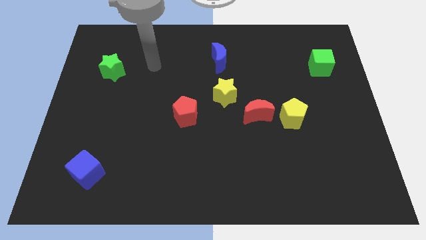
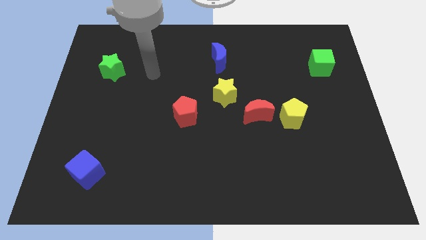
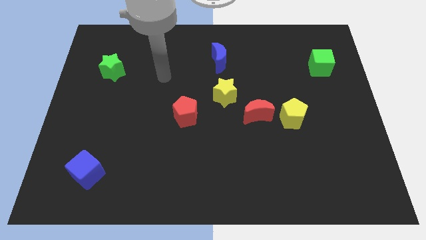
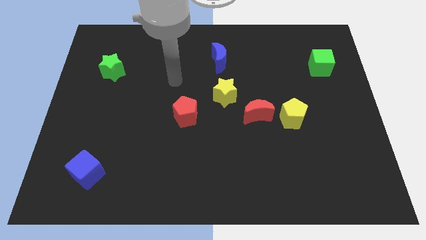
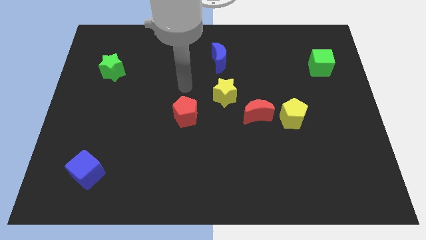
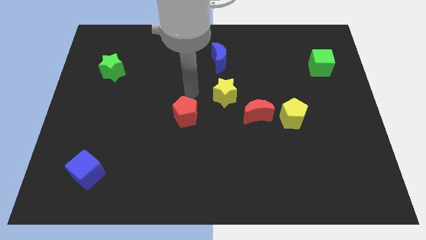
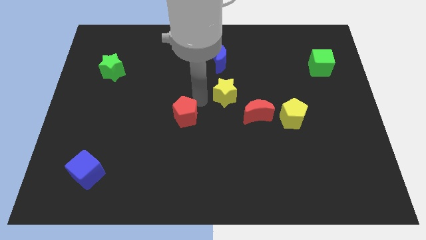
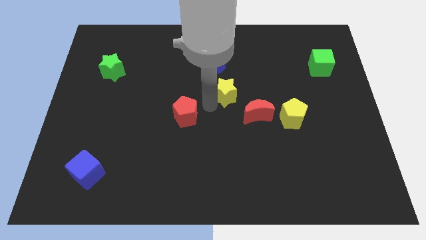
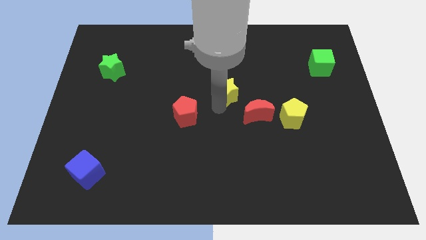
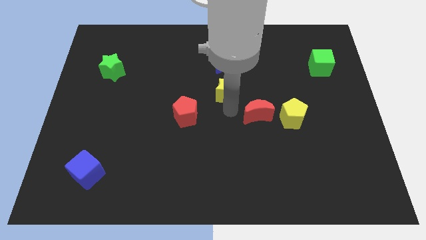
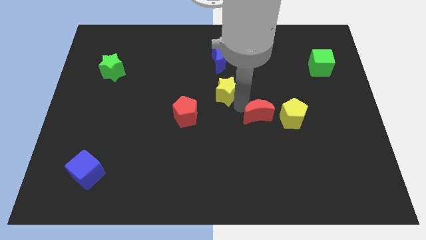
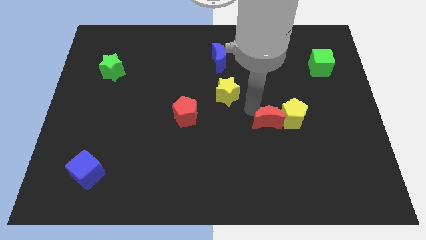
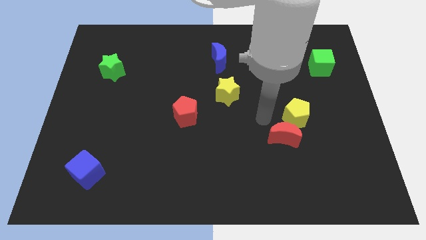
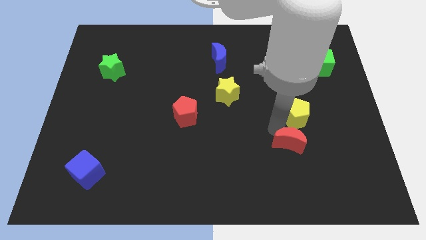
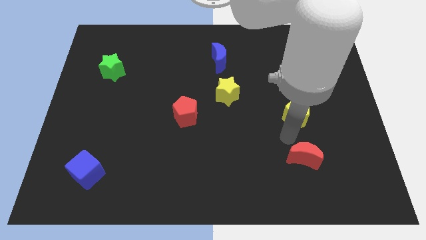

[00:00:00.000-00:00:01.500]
separate the yellow pentagon from the red moon

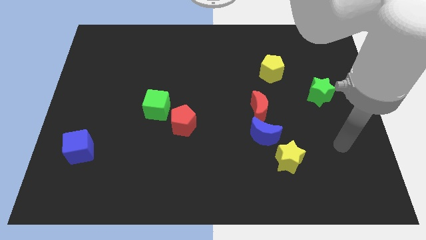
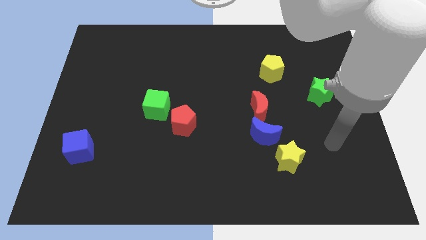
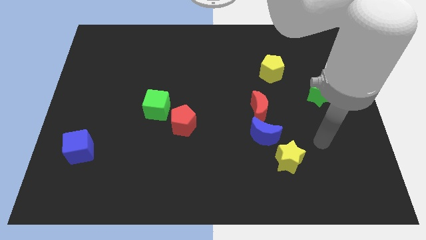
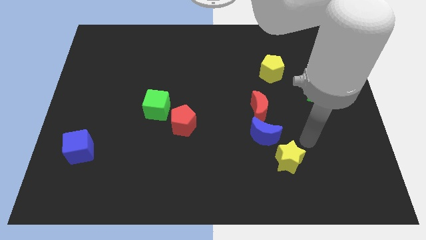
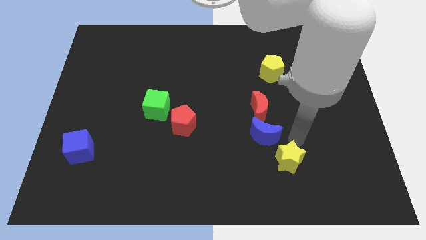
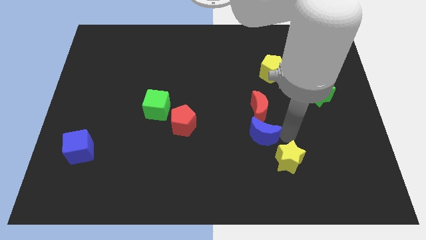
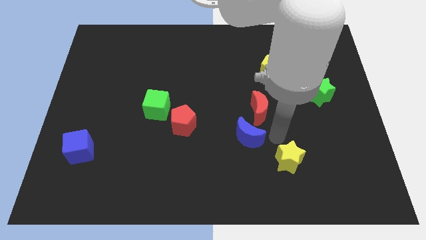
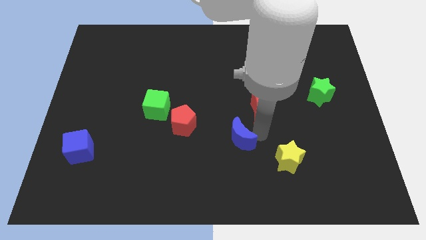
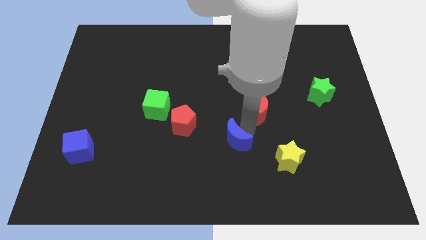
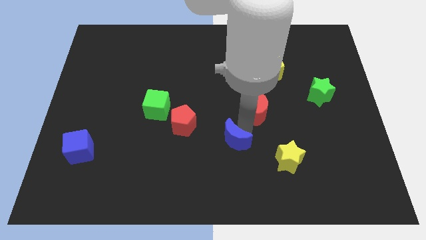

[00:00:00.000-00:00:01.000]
pull the red moon apart from the blue moon

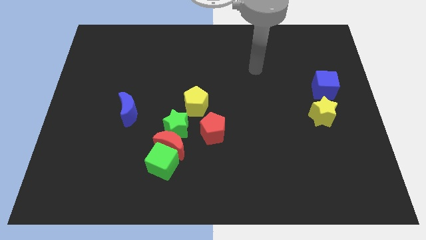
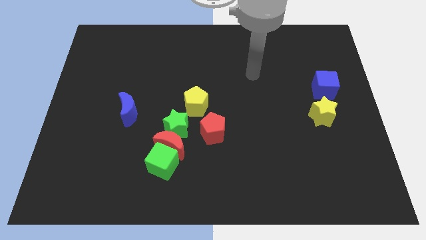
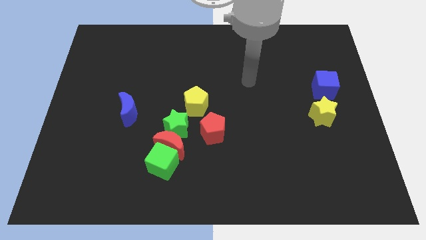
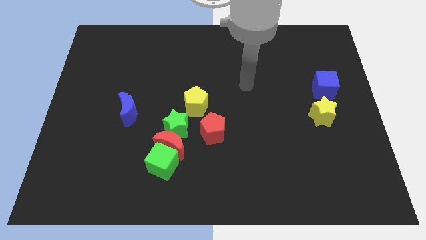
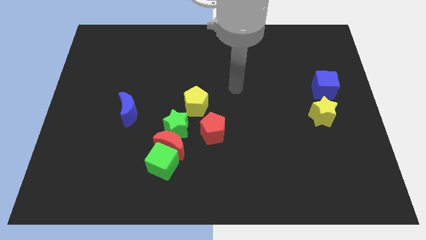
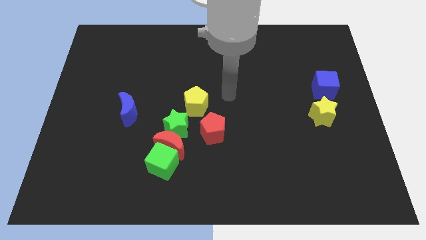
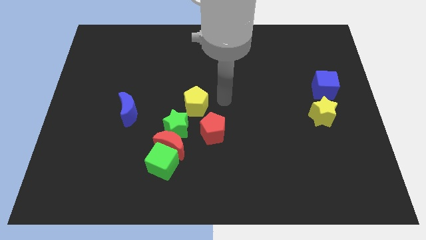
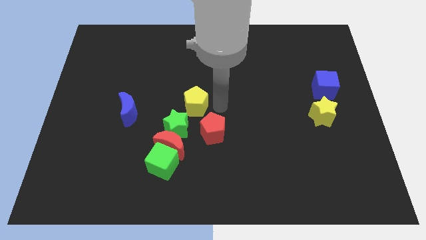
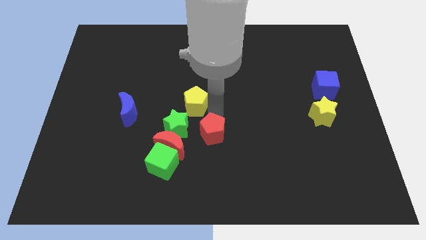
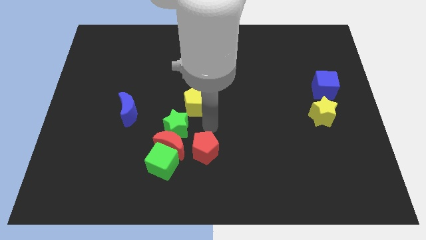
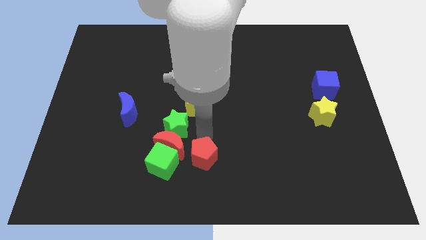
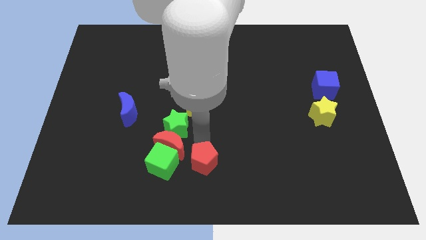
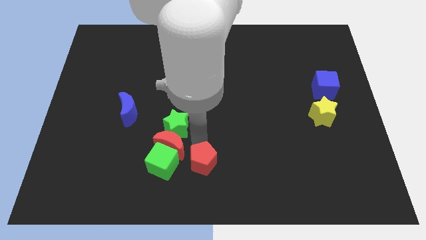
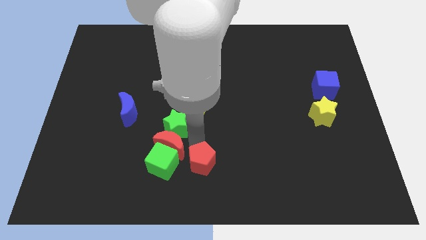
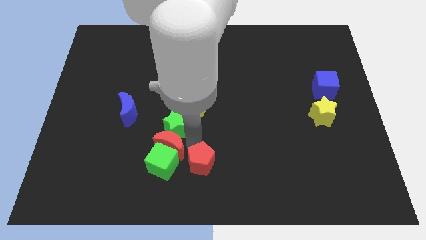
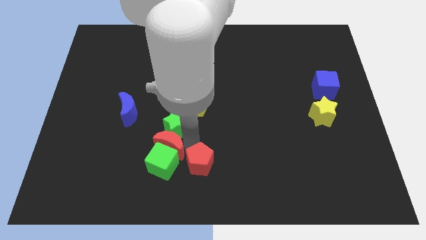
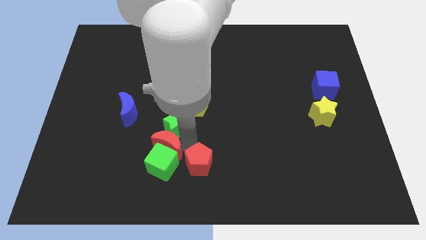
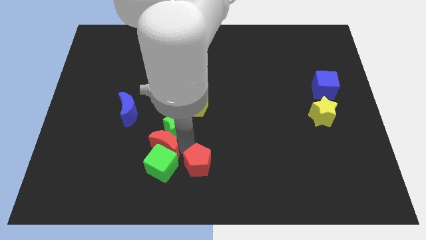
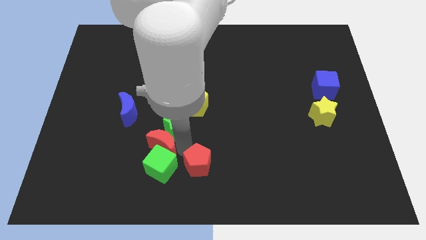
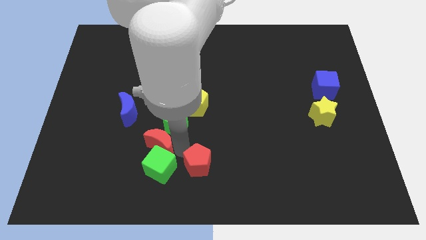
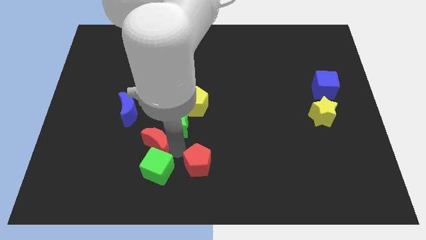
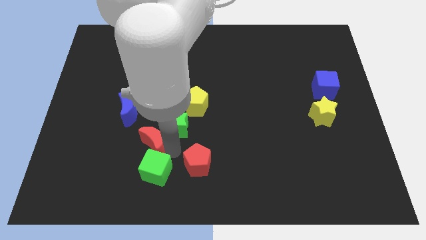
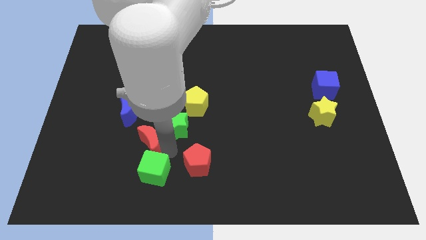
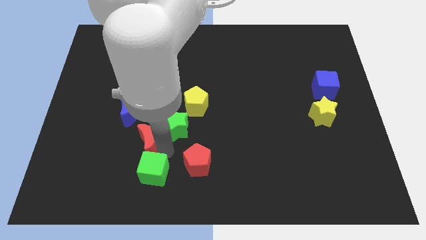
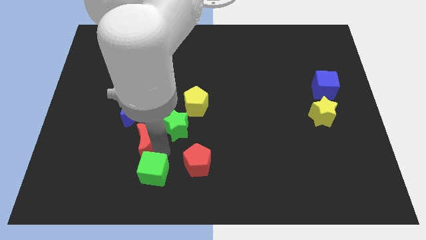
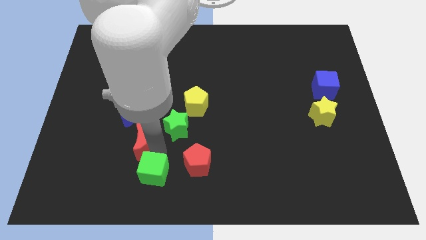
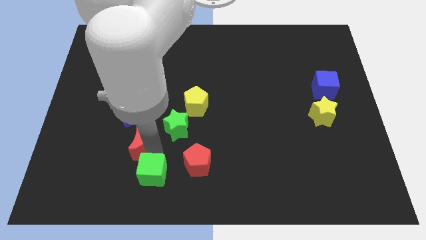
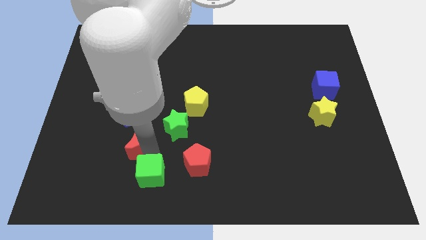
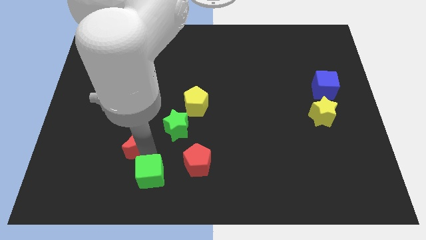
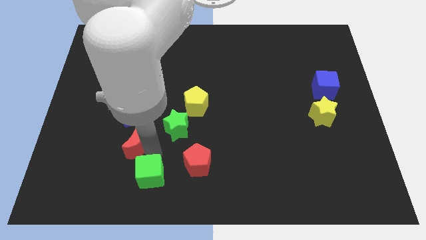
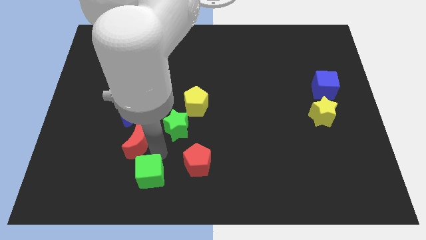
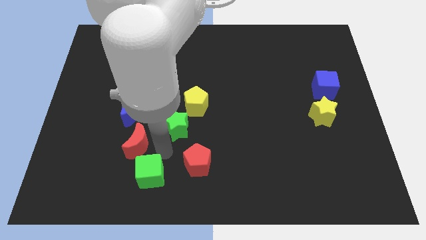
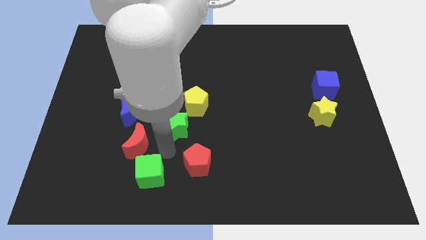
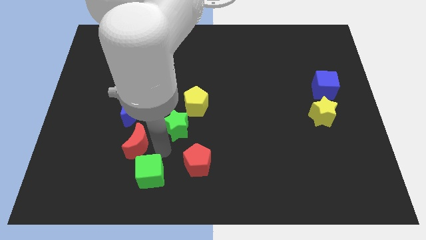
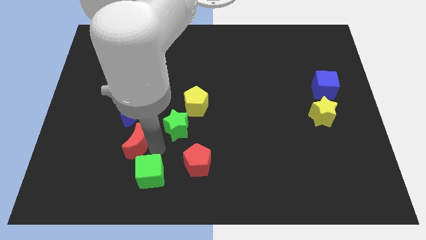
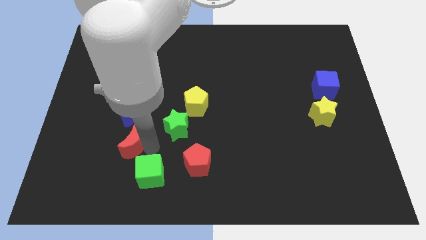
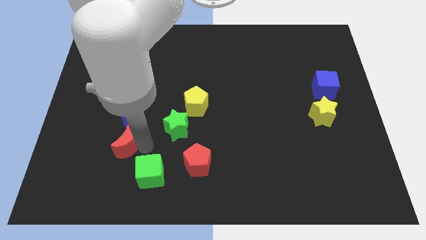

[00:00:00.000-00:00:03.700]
separate the red moon from the group of blocks

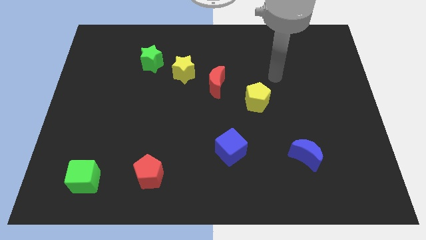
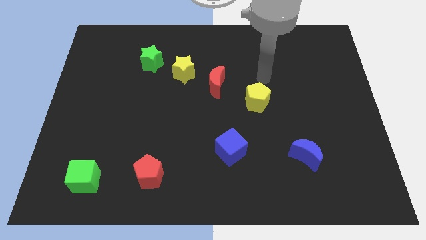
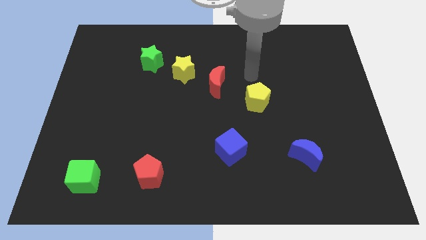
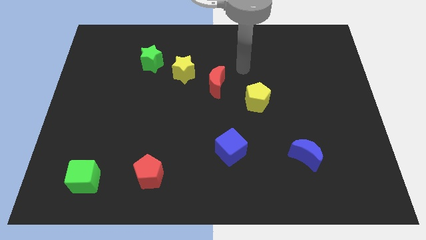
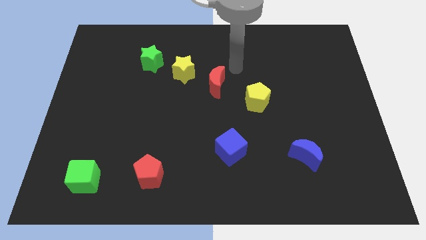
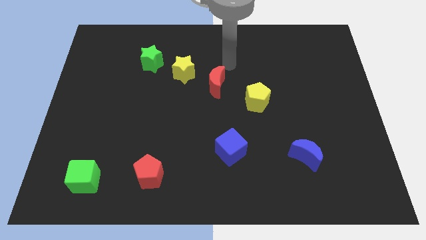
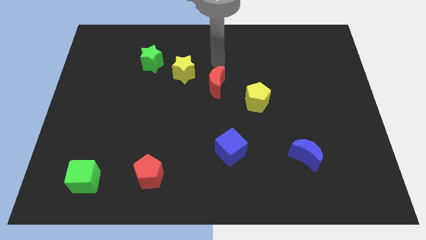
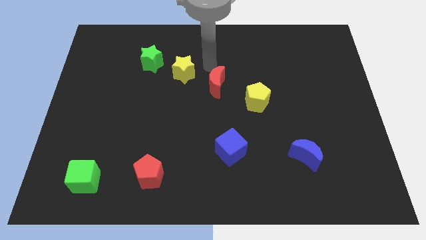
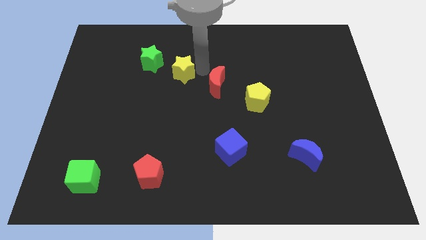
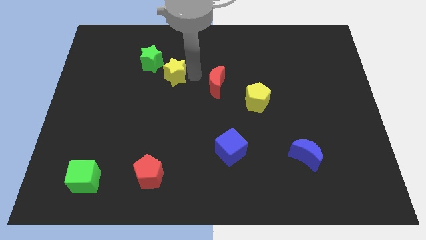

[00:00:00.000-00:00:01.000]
move the red moon away from the yellow star

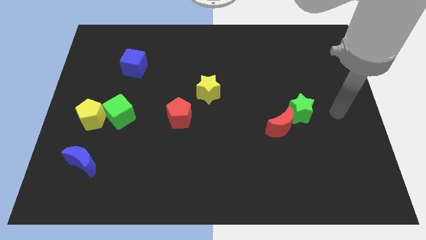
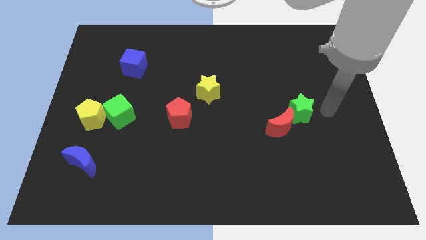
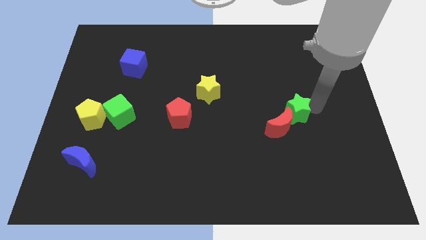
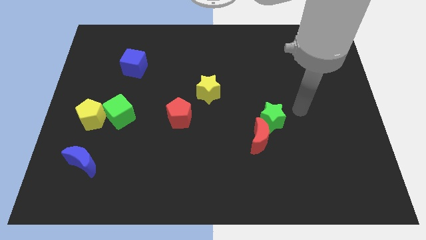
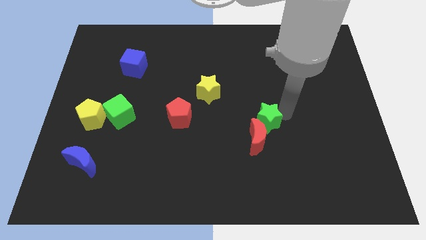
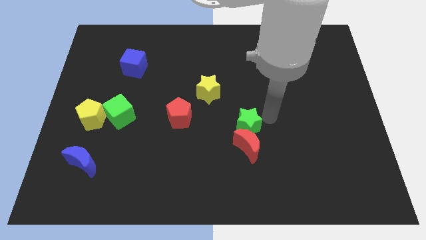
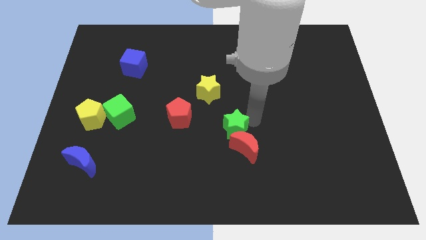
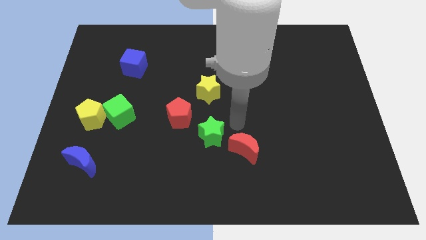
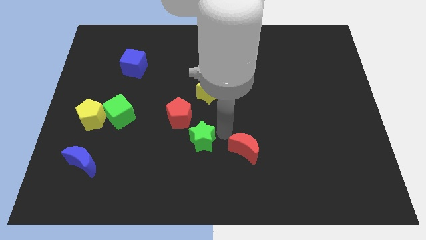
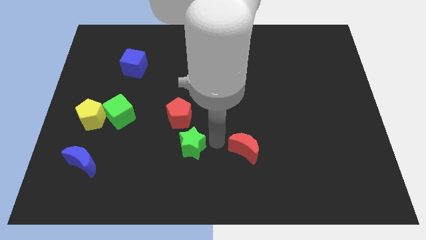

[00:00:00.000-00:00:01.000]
separate the red moon from the green star

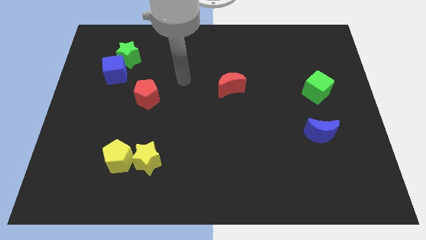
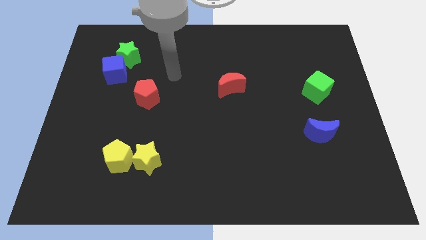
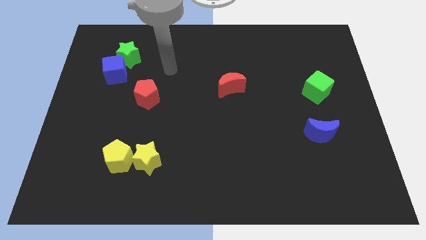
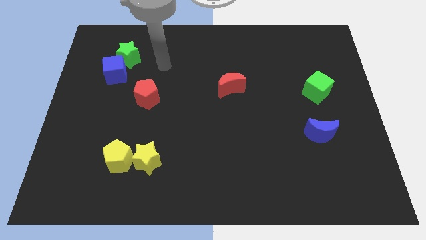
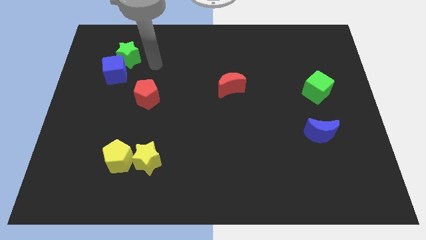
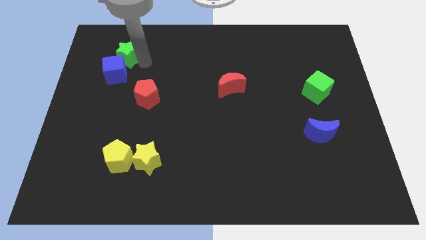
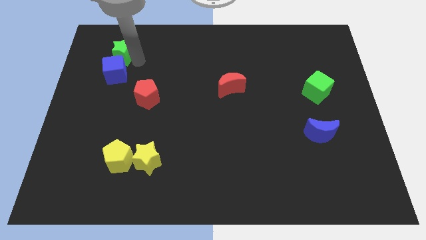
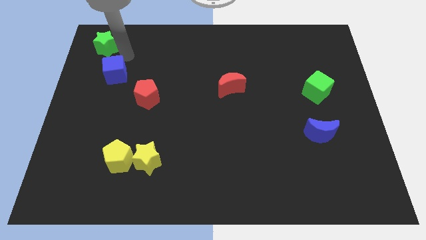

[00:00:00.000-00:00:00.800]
separate the blue cube from the green star

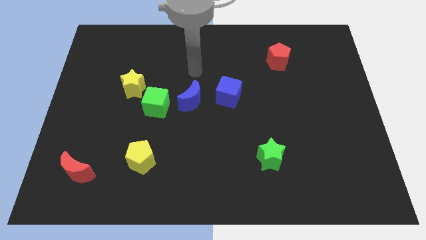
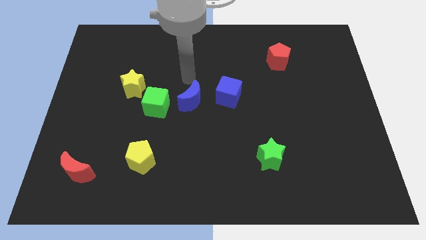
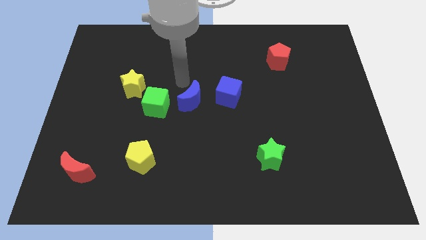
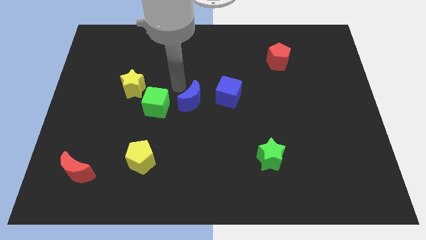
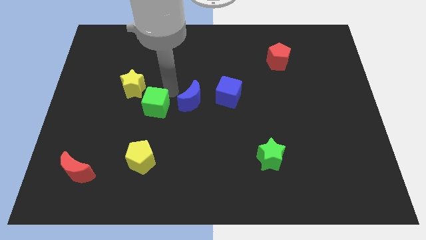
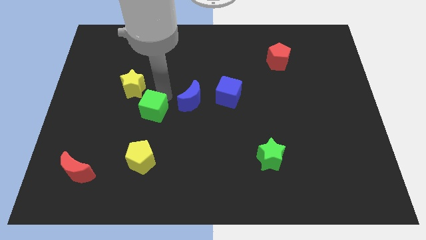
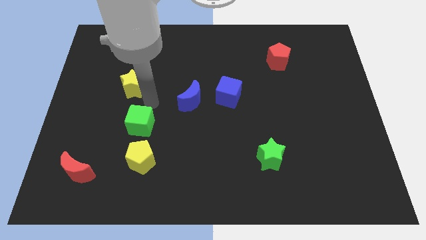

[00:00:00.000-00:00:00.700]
move the yellow star away from the green cube
